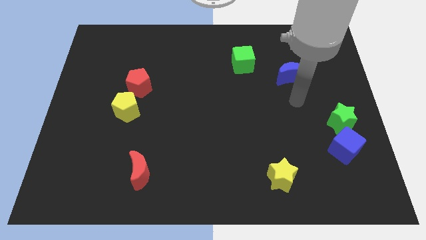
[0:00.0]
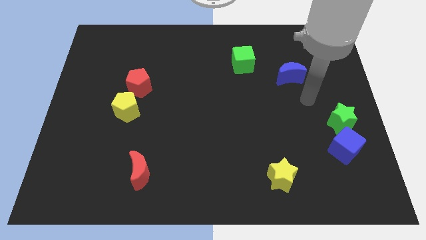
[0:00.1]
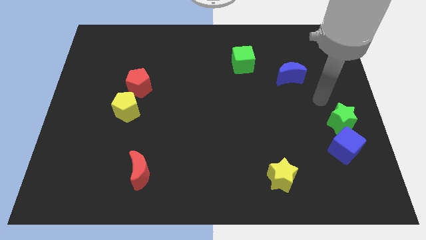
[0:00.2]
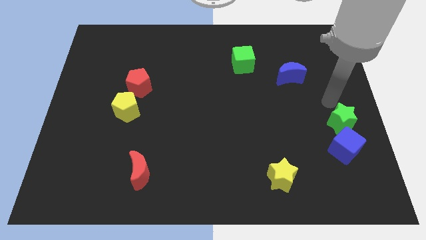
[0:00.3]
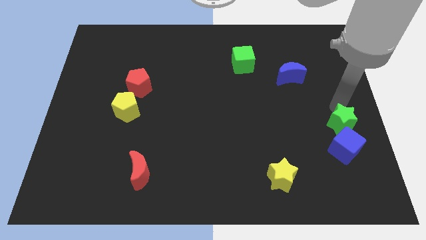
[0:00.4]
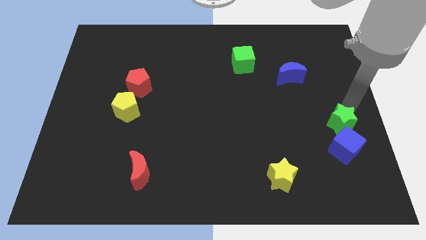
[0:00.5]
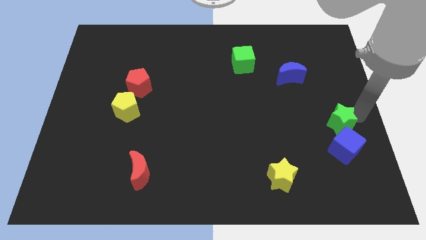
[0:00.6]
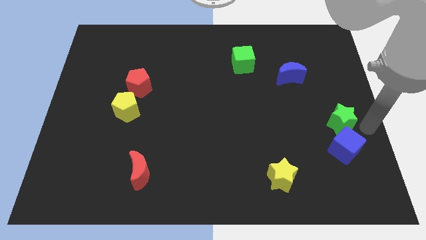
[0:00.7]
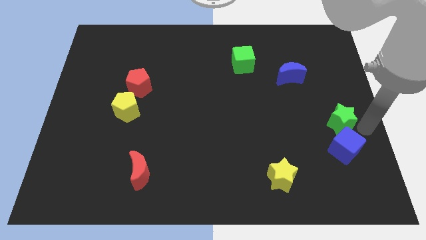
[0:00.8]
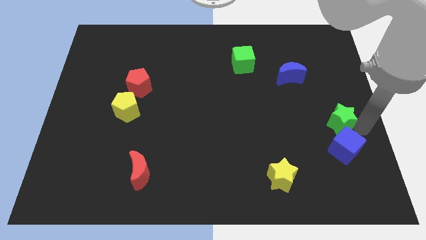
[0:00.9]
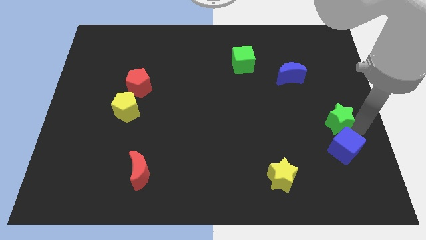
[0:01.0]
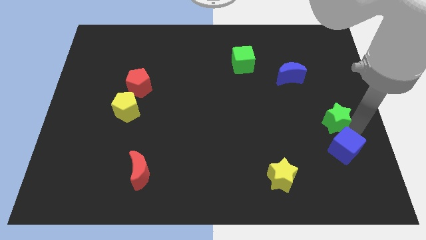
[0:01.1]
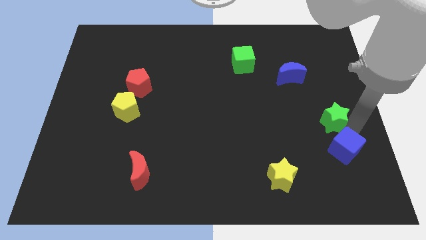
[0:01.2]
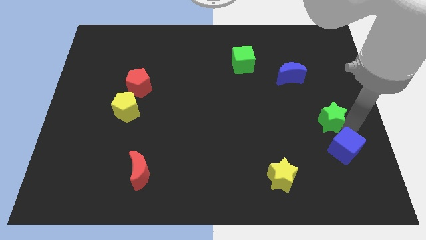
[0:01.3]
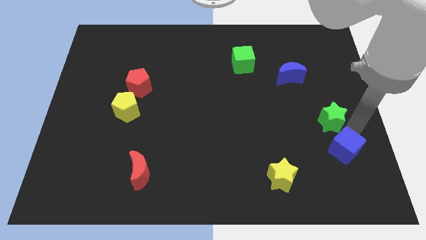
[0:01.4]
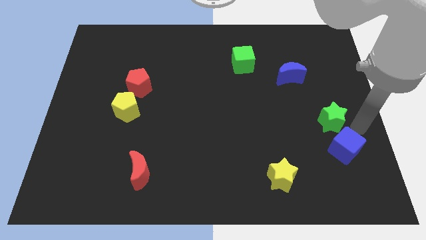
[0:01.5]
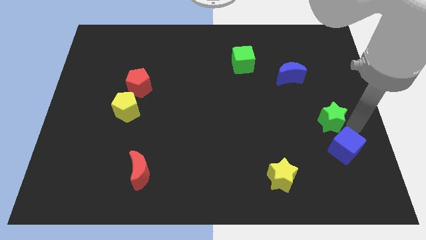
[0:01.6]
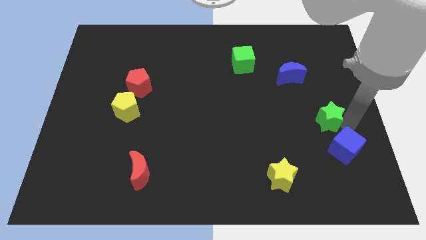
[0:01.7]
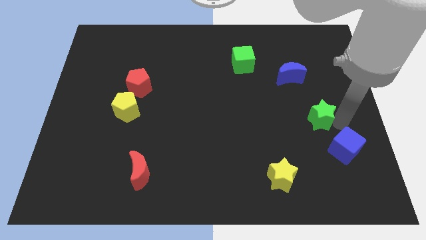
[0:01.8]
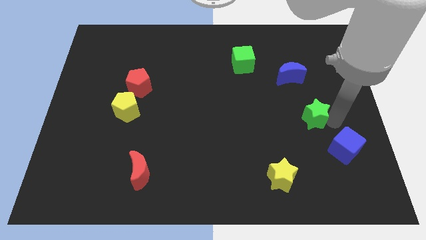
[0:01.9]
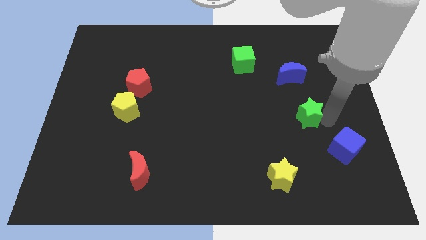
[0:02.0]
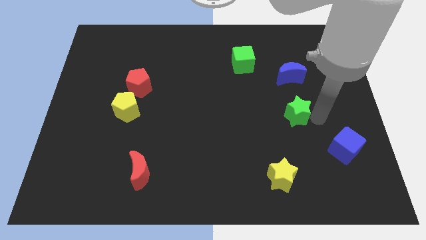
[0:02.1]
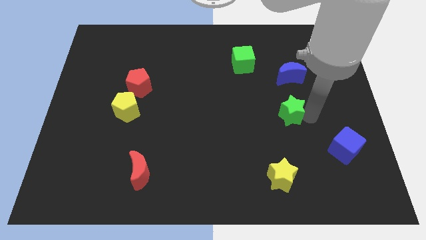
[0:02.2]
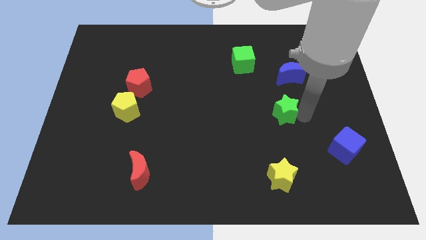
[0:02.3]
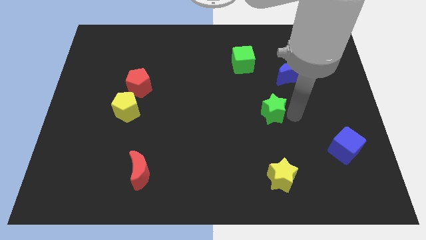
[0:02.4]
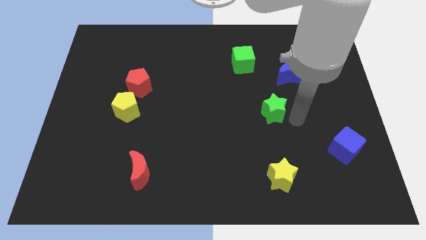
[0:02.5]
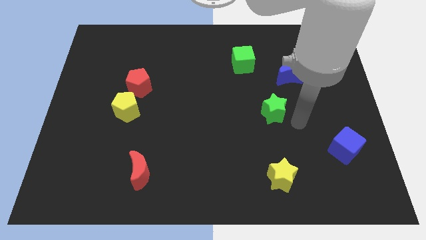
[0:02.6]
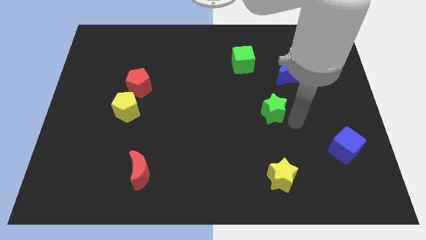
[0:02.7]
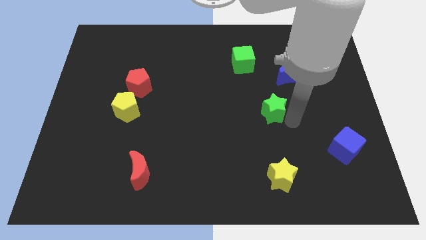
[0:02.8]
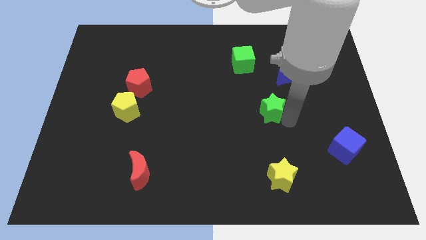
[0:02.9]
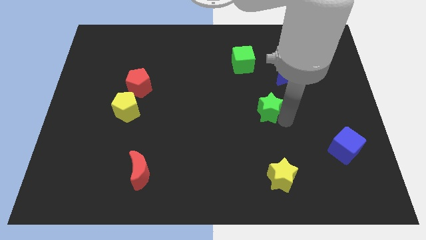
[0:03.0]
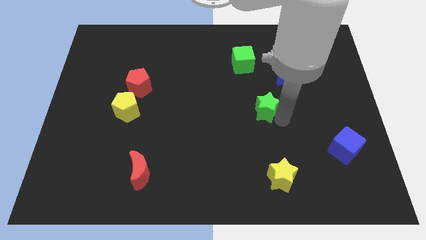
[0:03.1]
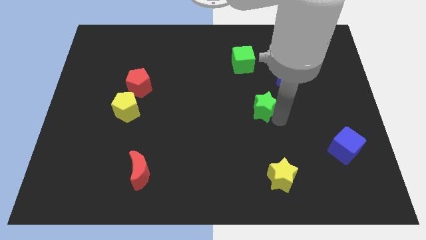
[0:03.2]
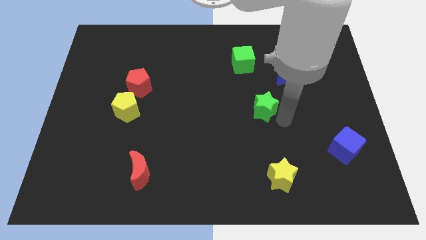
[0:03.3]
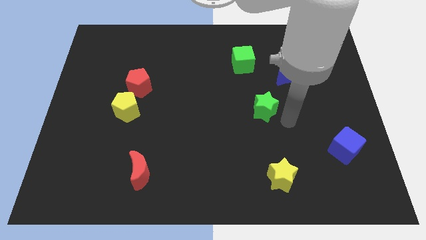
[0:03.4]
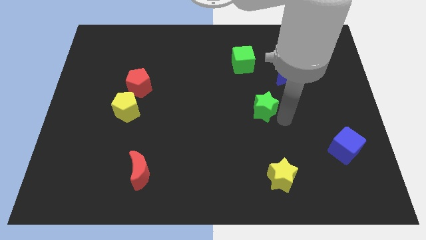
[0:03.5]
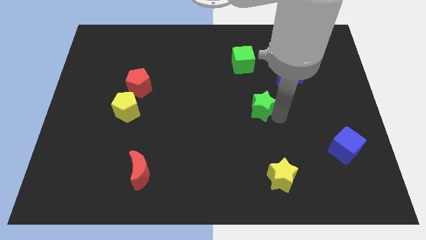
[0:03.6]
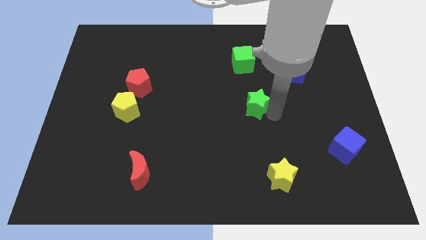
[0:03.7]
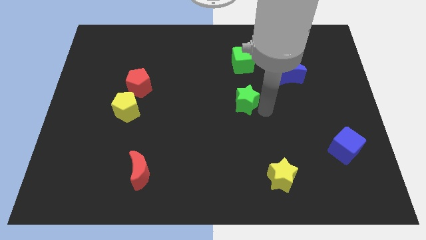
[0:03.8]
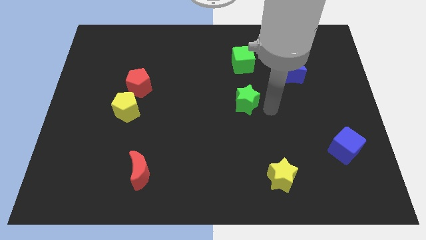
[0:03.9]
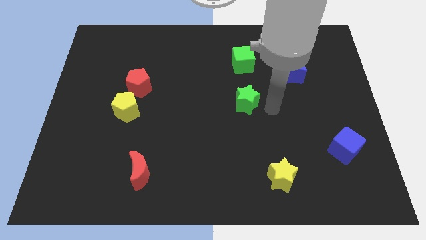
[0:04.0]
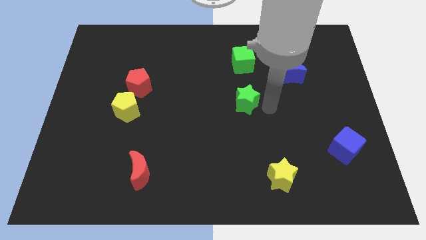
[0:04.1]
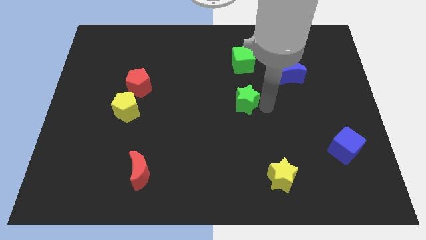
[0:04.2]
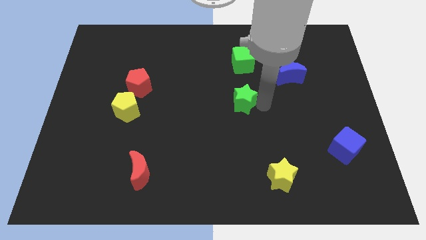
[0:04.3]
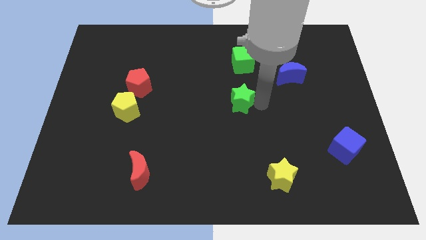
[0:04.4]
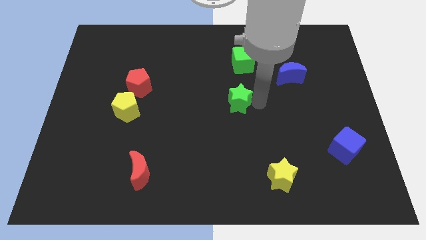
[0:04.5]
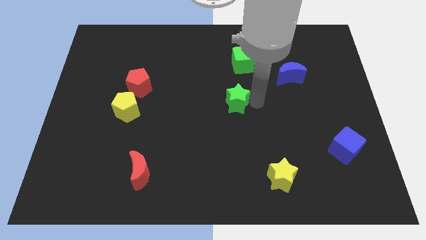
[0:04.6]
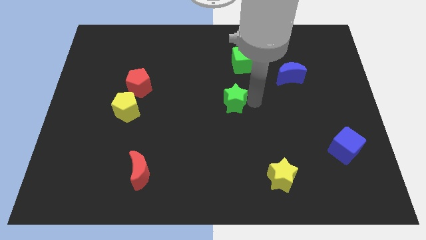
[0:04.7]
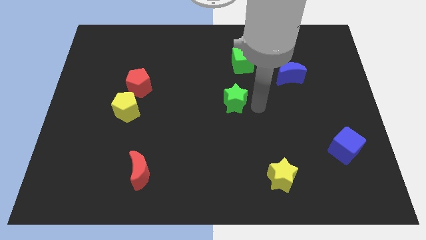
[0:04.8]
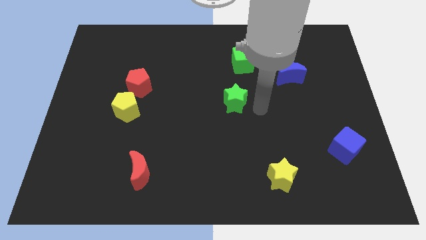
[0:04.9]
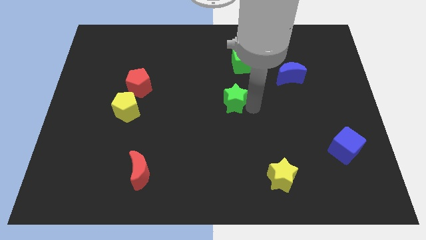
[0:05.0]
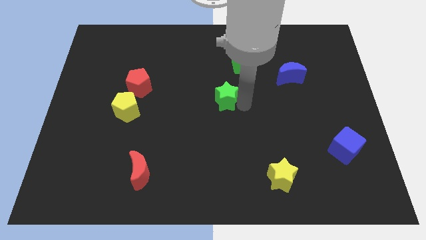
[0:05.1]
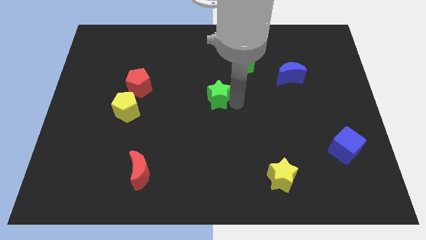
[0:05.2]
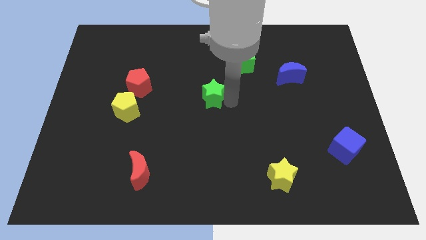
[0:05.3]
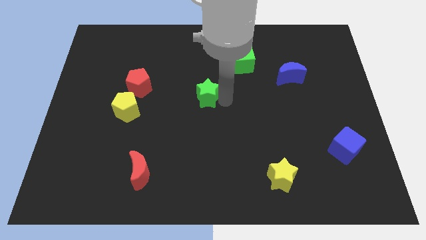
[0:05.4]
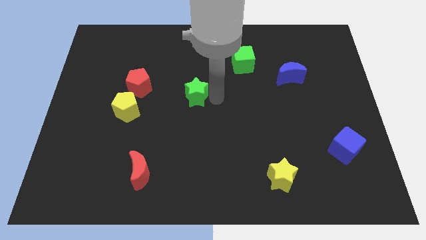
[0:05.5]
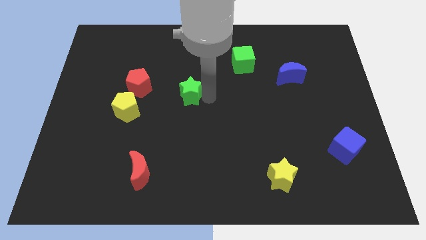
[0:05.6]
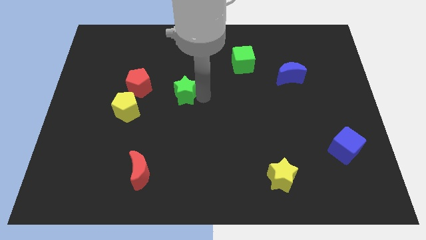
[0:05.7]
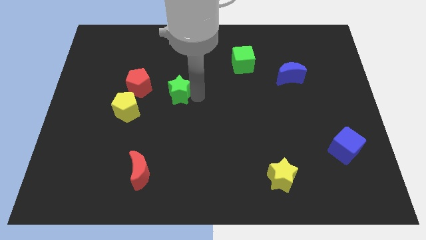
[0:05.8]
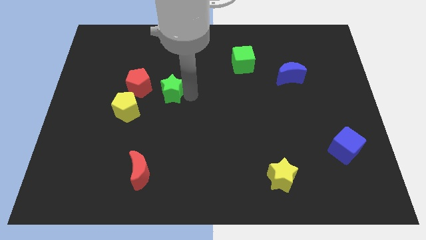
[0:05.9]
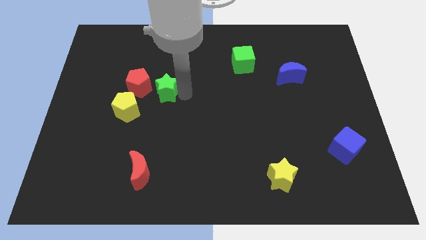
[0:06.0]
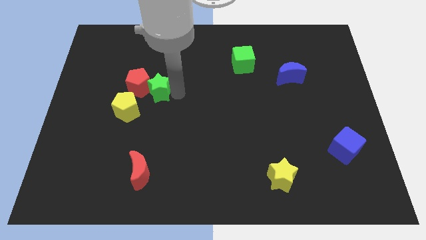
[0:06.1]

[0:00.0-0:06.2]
put the green star to the red pentagon

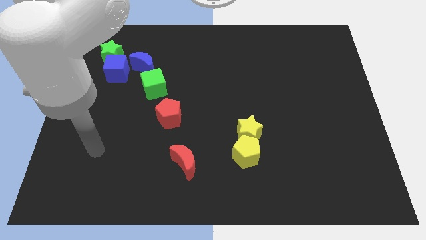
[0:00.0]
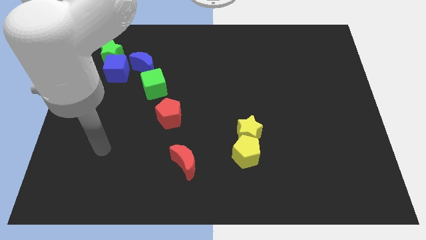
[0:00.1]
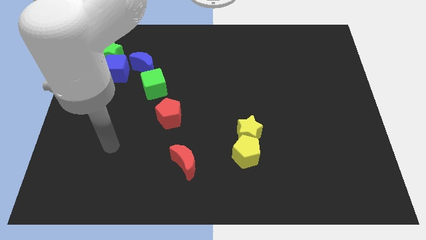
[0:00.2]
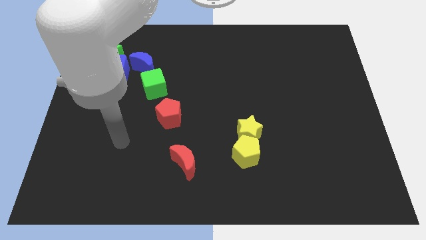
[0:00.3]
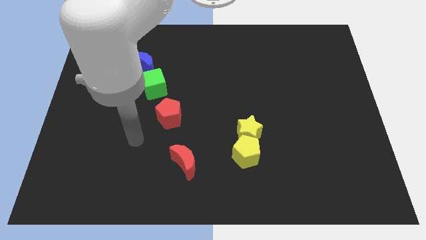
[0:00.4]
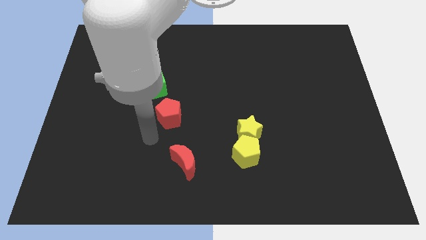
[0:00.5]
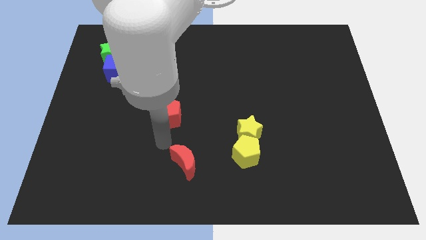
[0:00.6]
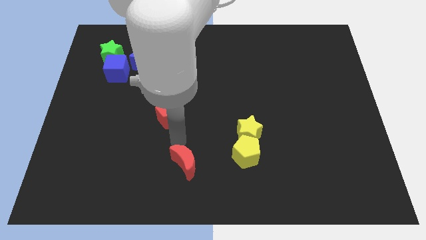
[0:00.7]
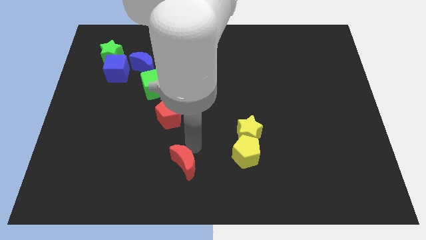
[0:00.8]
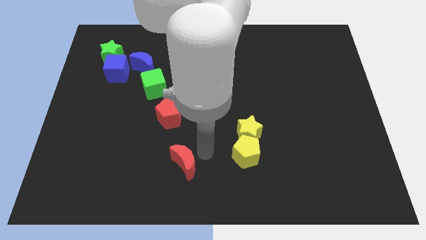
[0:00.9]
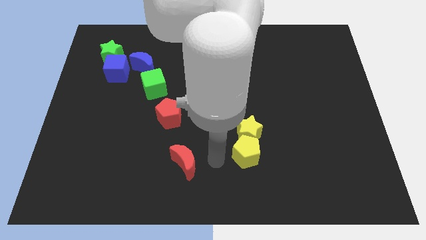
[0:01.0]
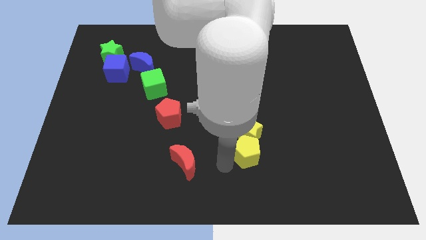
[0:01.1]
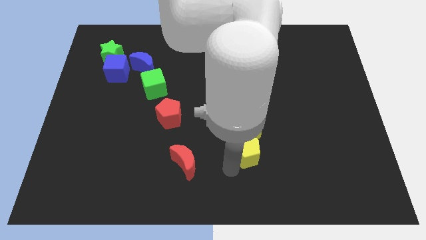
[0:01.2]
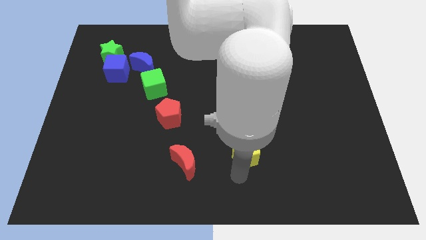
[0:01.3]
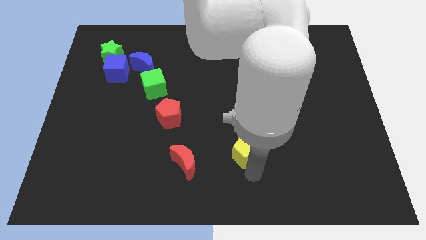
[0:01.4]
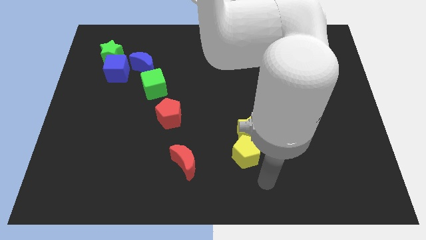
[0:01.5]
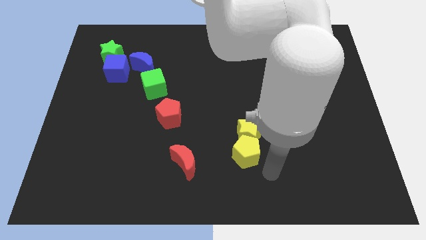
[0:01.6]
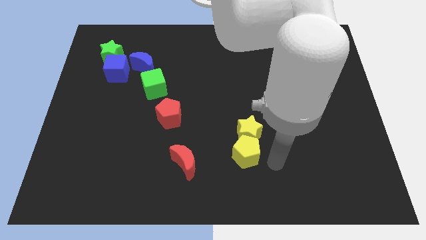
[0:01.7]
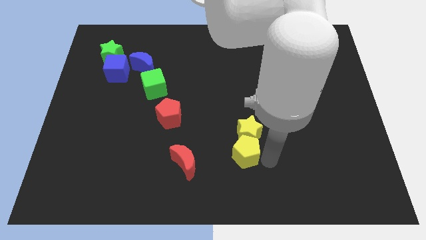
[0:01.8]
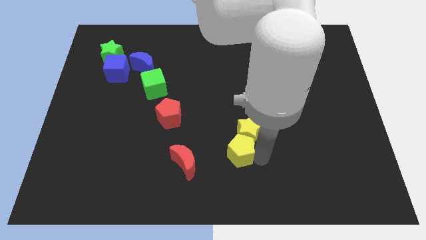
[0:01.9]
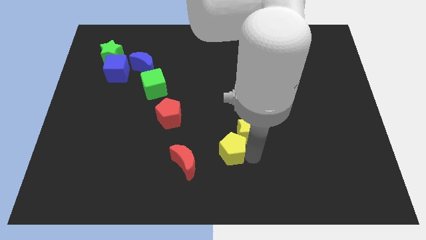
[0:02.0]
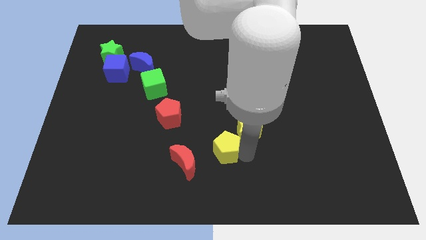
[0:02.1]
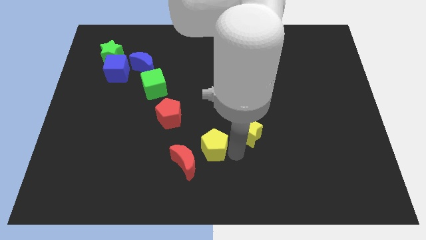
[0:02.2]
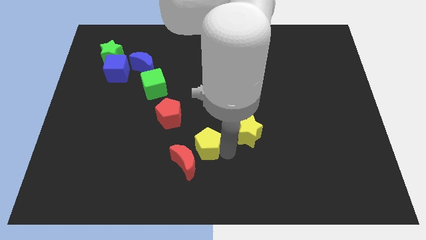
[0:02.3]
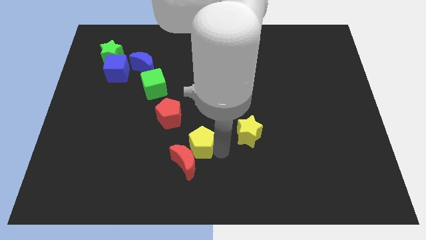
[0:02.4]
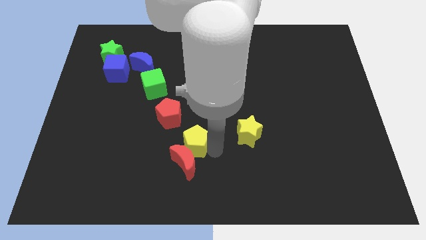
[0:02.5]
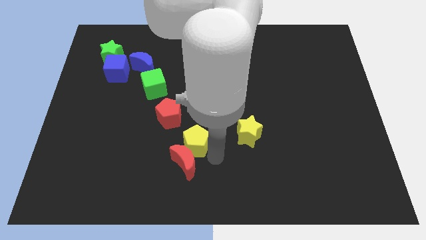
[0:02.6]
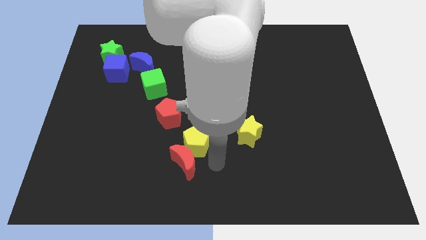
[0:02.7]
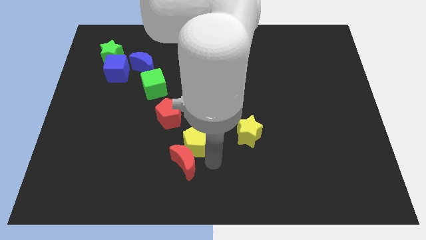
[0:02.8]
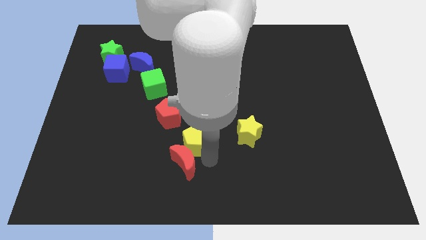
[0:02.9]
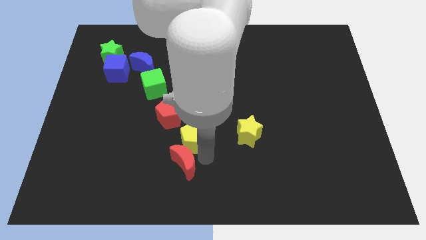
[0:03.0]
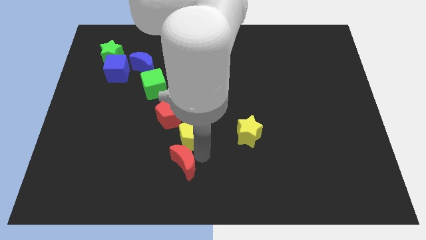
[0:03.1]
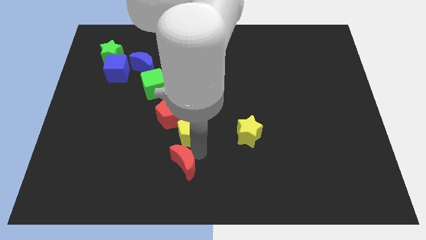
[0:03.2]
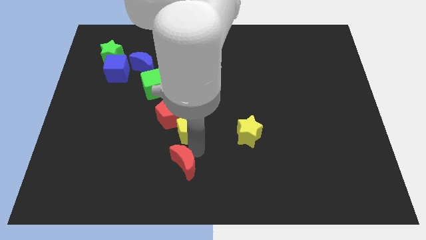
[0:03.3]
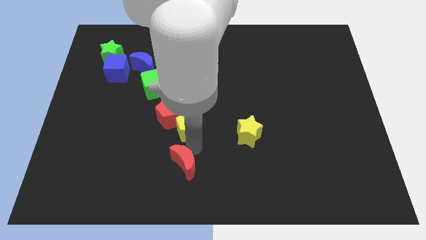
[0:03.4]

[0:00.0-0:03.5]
slide the yellow pentagon towards the red pentagon
